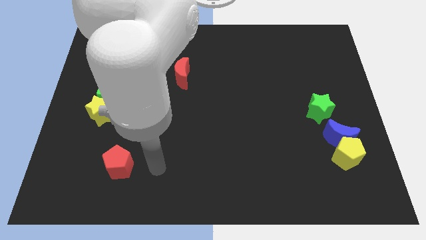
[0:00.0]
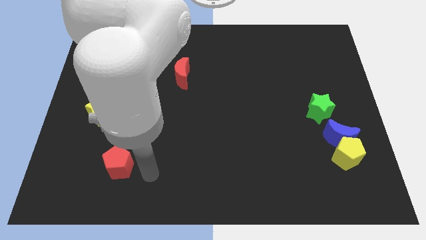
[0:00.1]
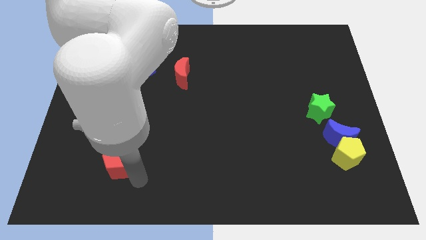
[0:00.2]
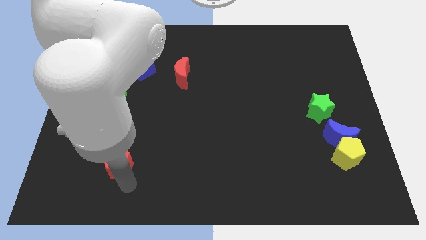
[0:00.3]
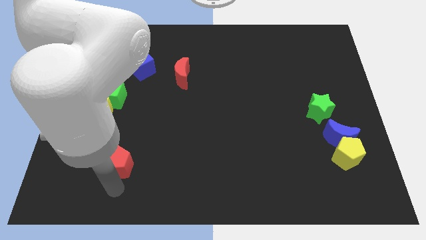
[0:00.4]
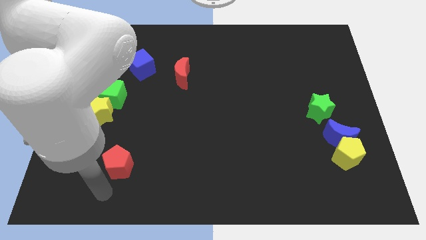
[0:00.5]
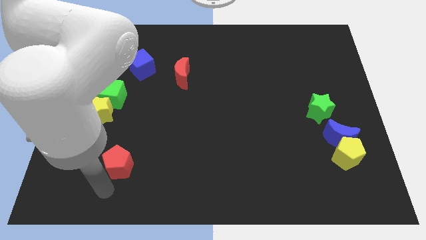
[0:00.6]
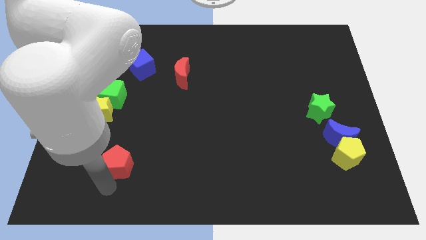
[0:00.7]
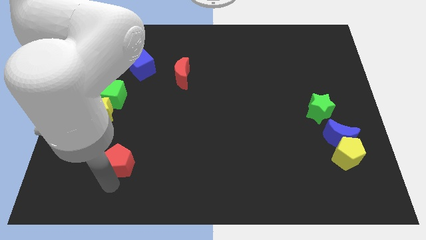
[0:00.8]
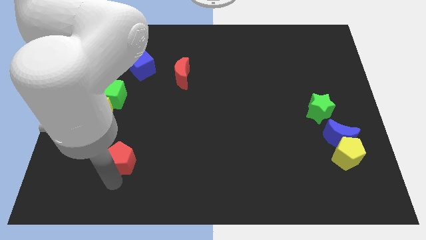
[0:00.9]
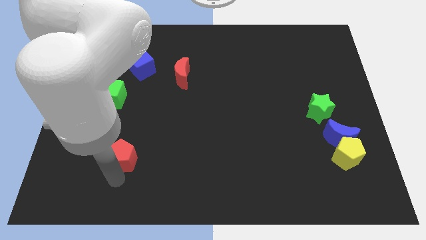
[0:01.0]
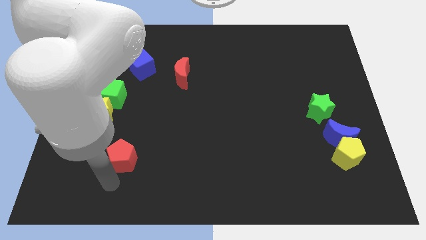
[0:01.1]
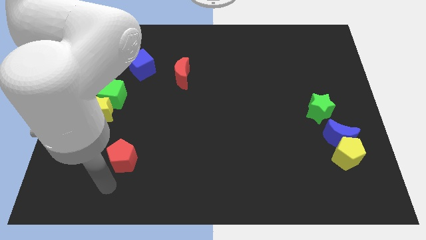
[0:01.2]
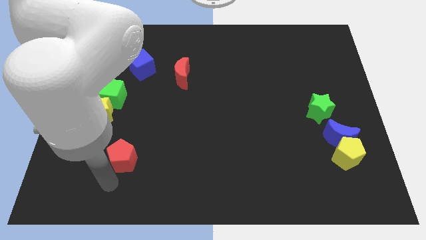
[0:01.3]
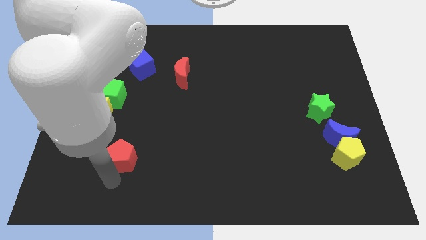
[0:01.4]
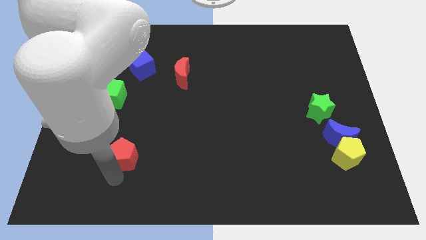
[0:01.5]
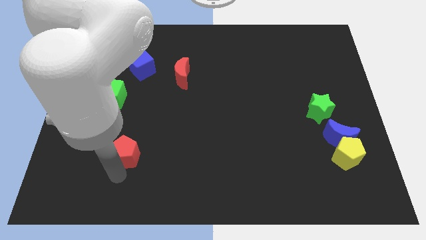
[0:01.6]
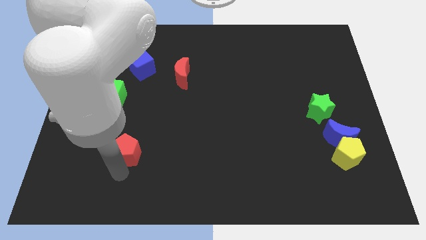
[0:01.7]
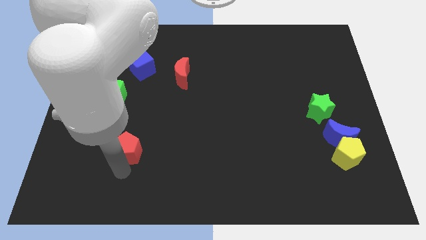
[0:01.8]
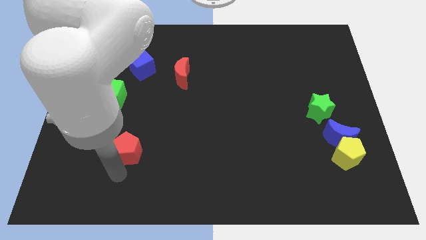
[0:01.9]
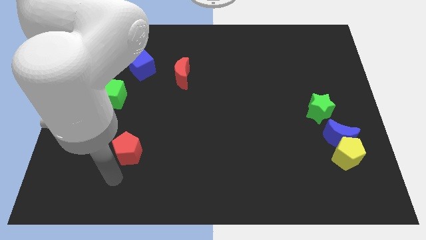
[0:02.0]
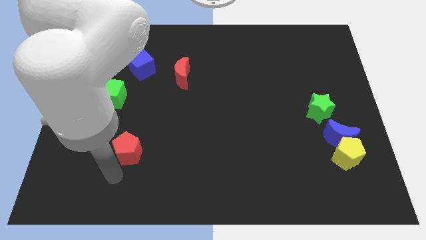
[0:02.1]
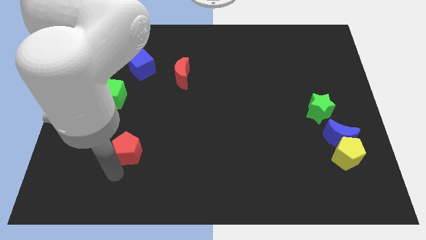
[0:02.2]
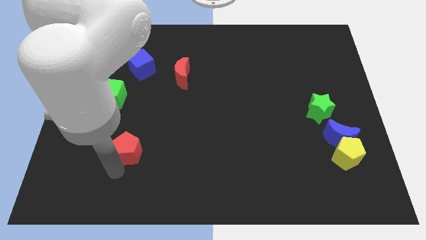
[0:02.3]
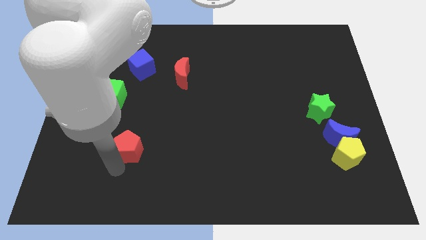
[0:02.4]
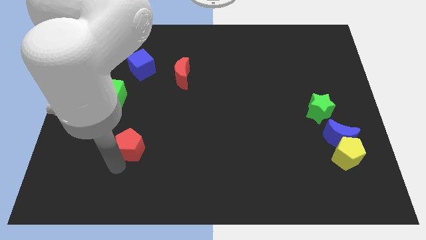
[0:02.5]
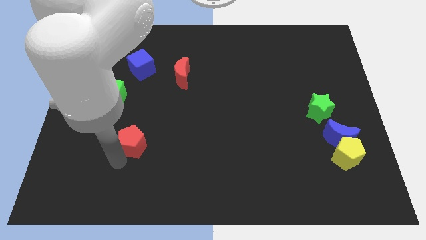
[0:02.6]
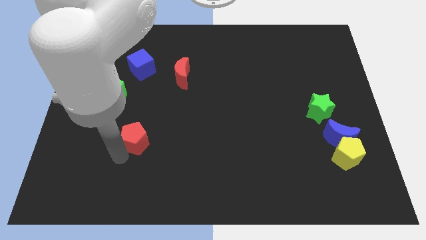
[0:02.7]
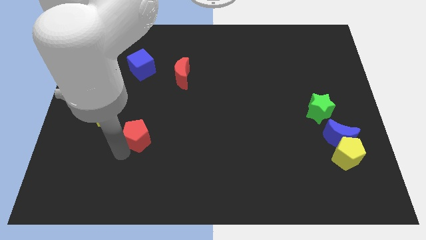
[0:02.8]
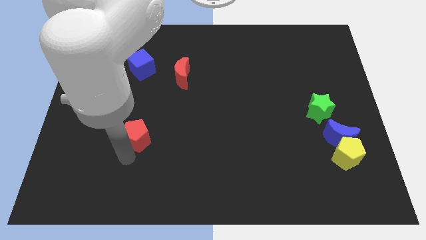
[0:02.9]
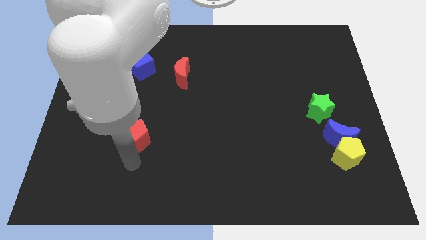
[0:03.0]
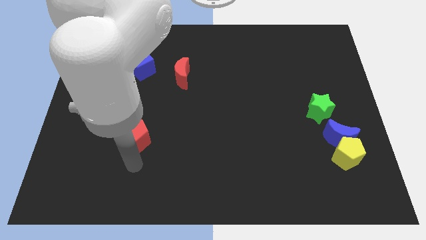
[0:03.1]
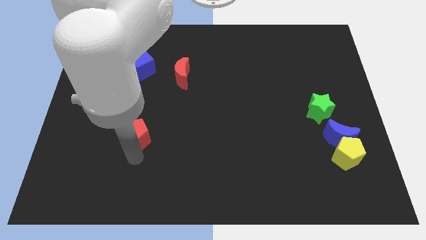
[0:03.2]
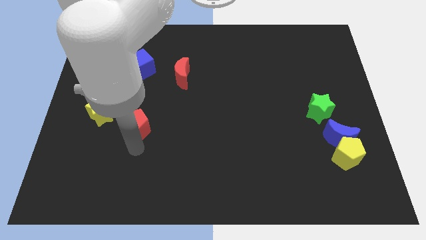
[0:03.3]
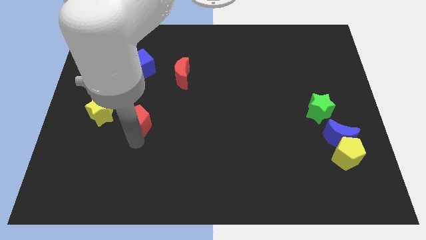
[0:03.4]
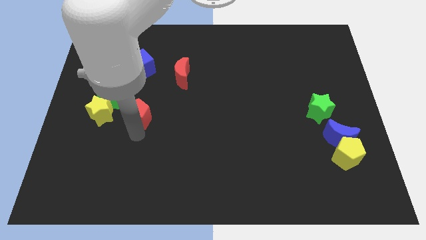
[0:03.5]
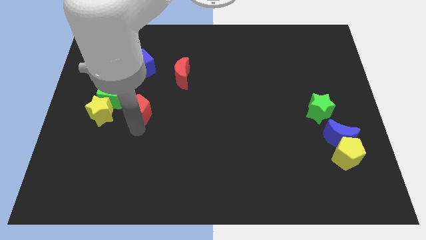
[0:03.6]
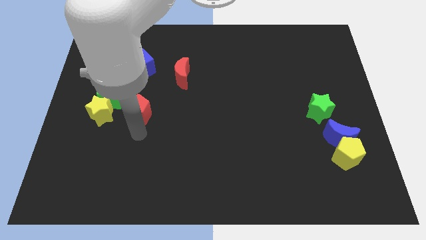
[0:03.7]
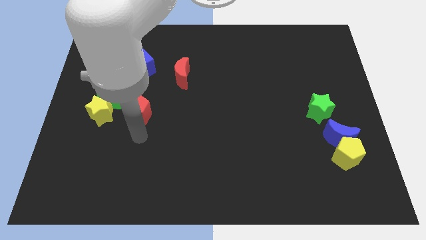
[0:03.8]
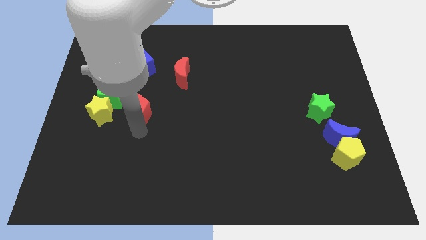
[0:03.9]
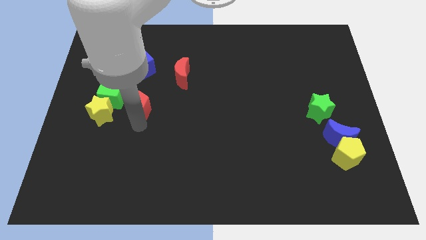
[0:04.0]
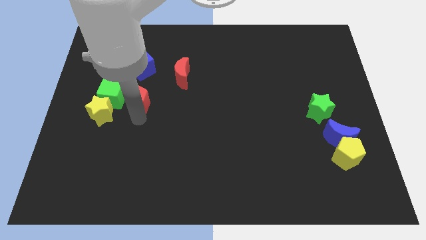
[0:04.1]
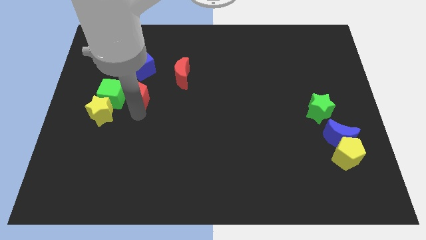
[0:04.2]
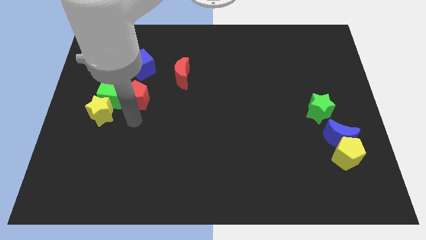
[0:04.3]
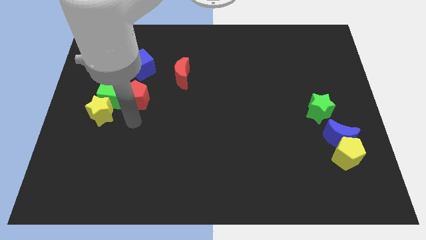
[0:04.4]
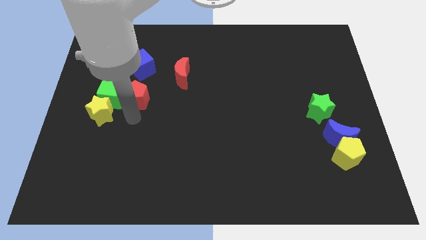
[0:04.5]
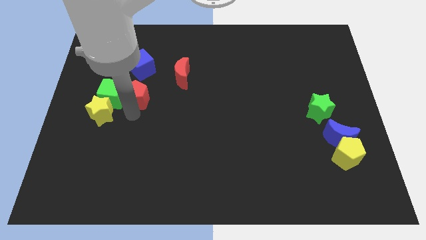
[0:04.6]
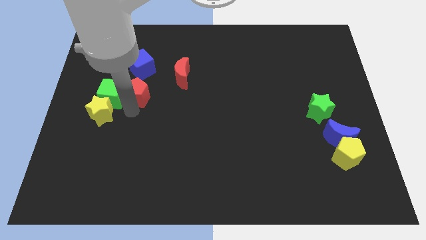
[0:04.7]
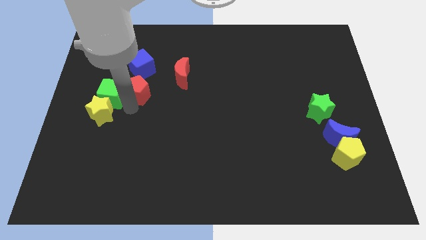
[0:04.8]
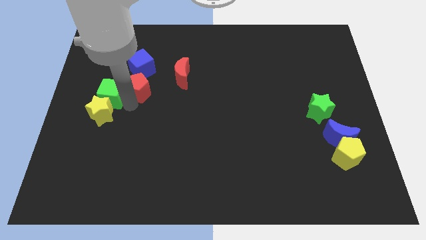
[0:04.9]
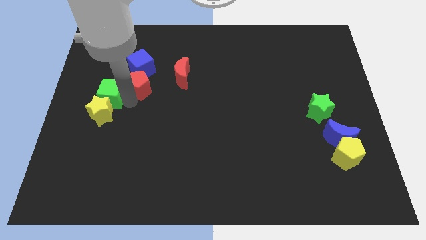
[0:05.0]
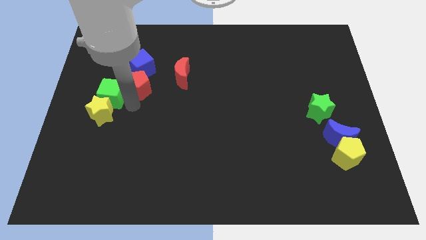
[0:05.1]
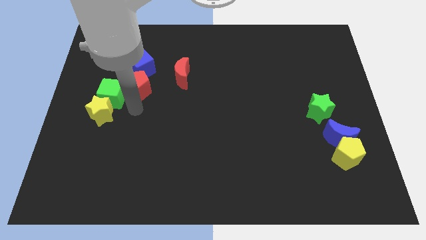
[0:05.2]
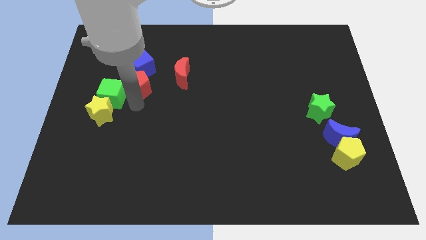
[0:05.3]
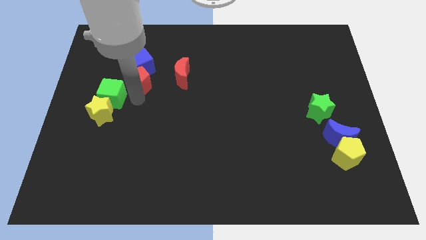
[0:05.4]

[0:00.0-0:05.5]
push the red pentagon towards the blue cube

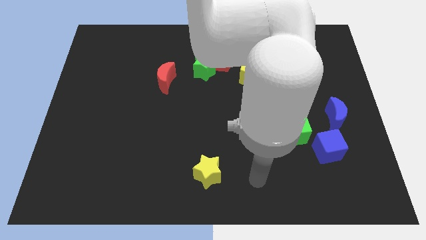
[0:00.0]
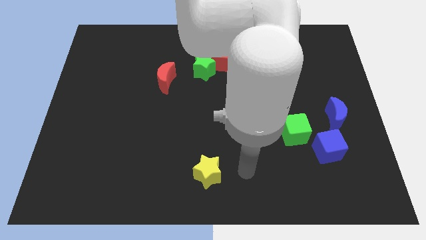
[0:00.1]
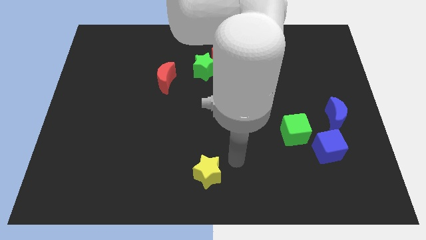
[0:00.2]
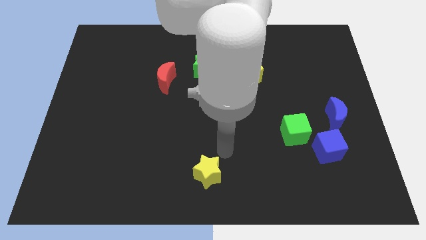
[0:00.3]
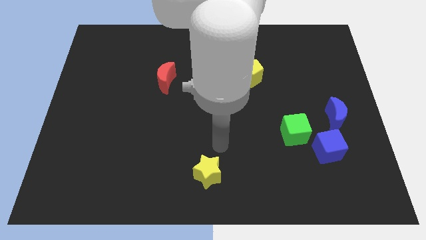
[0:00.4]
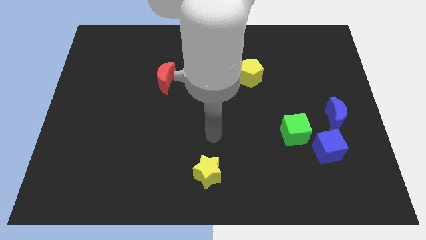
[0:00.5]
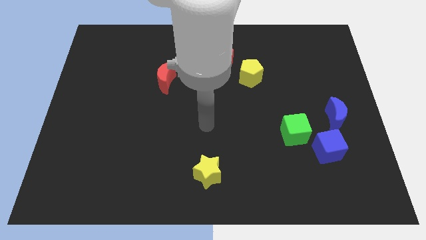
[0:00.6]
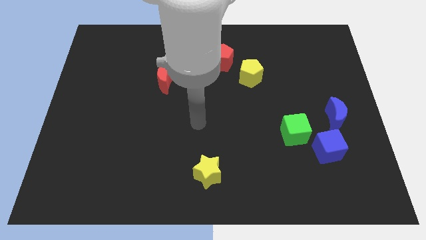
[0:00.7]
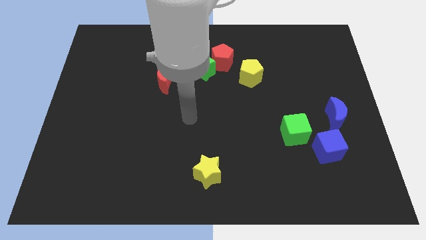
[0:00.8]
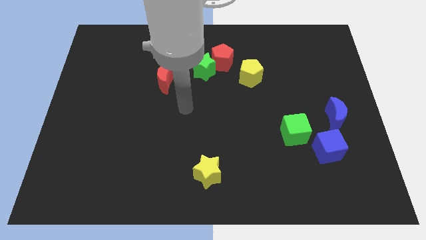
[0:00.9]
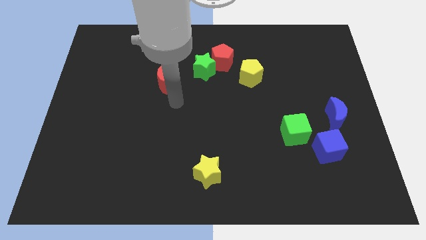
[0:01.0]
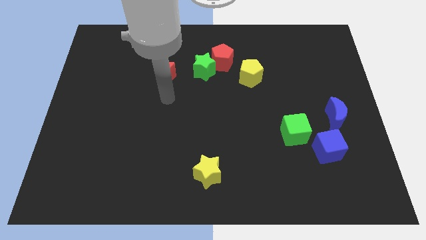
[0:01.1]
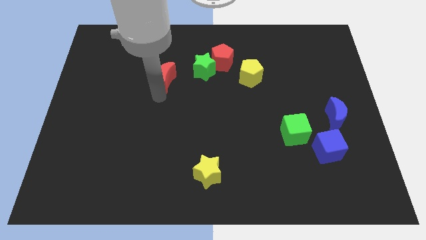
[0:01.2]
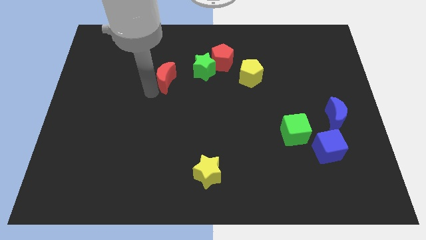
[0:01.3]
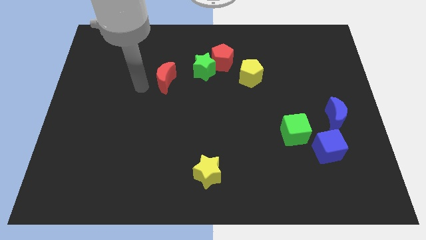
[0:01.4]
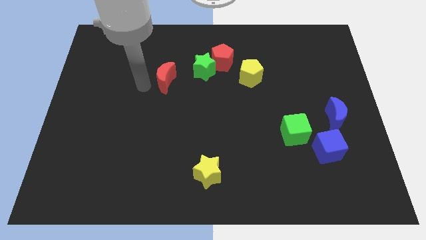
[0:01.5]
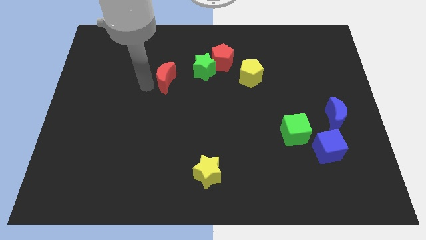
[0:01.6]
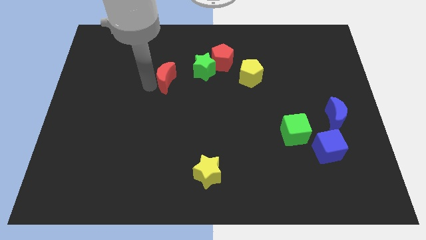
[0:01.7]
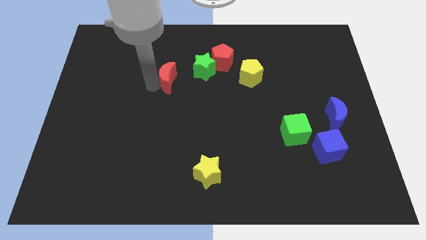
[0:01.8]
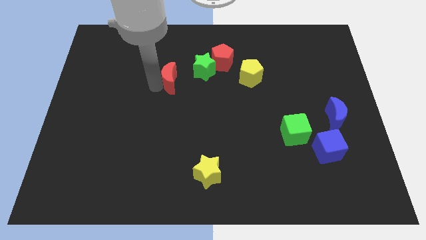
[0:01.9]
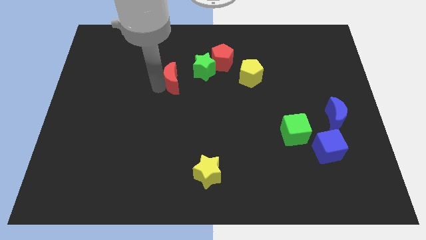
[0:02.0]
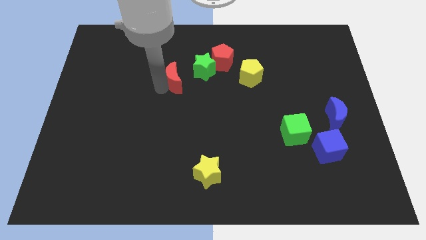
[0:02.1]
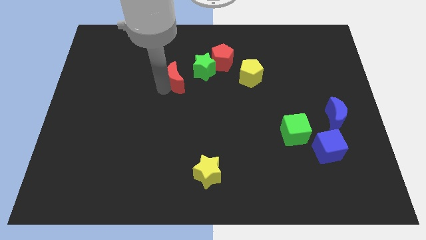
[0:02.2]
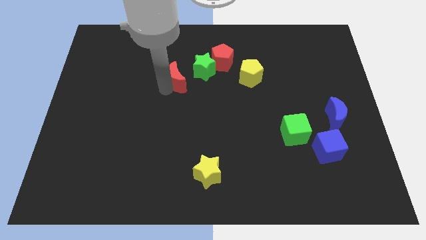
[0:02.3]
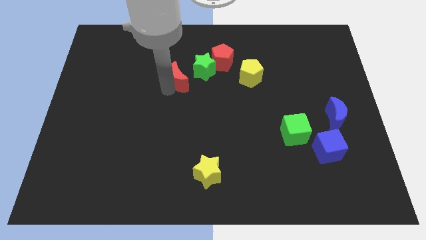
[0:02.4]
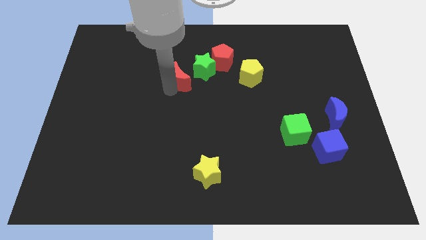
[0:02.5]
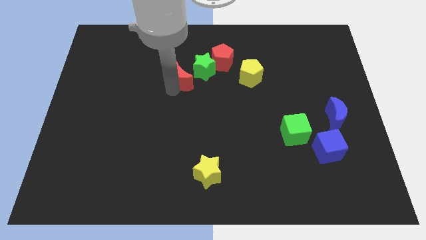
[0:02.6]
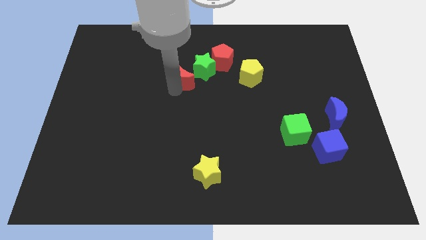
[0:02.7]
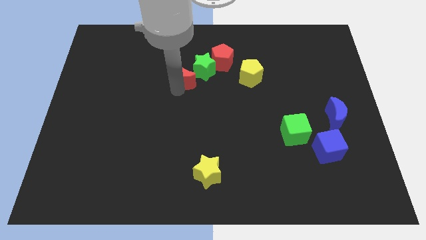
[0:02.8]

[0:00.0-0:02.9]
put the red moon next to the green star
